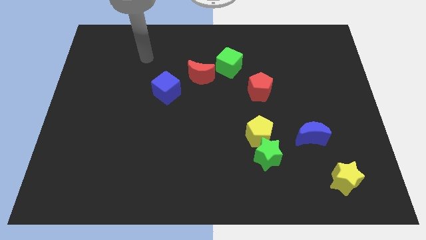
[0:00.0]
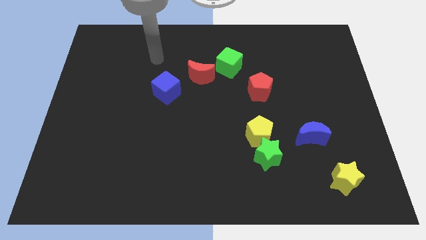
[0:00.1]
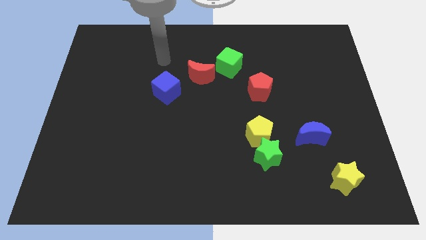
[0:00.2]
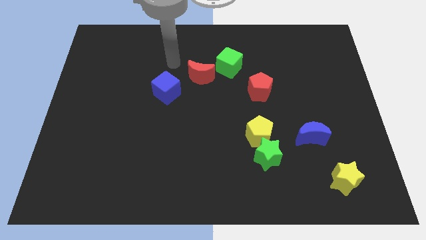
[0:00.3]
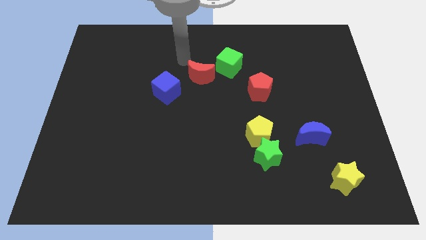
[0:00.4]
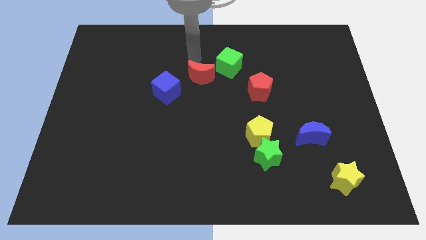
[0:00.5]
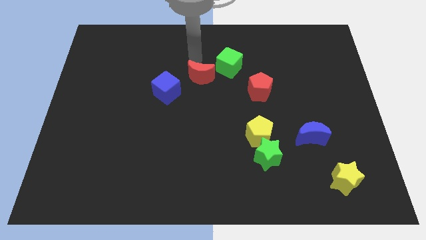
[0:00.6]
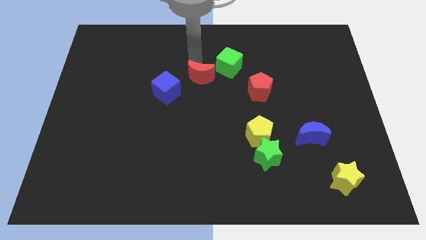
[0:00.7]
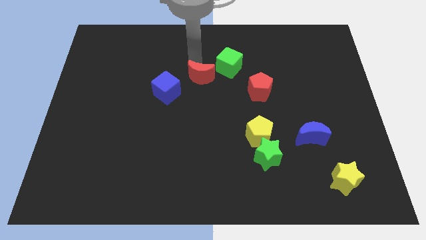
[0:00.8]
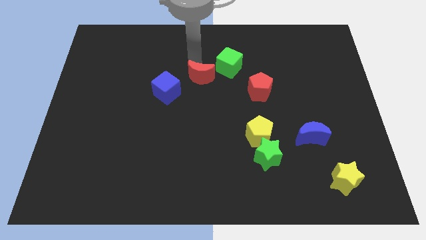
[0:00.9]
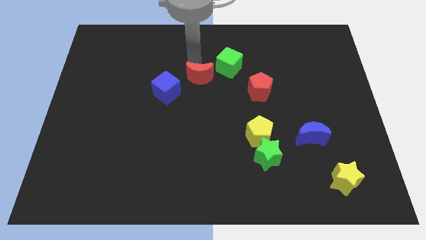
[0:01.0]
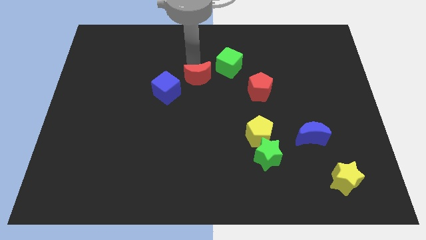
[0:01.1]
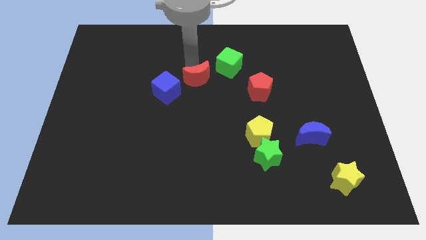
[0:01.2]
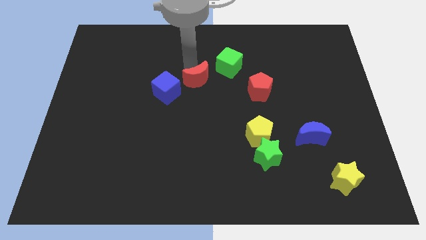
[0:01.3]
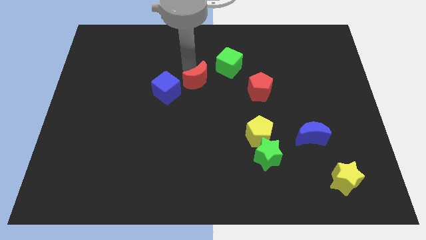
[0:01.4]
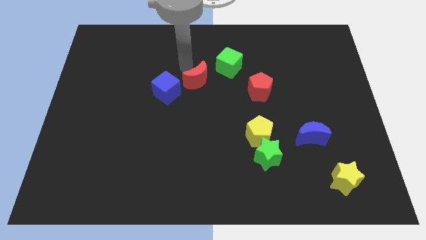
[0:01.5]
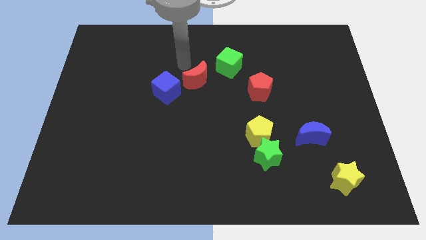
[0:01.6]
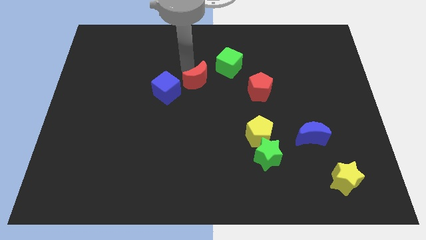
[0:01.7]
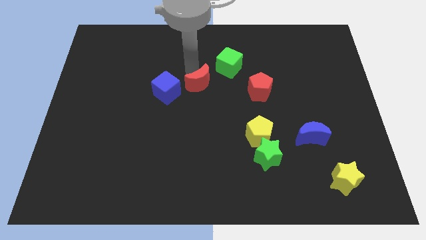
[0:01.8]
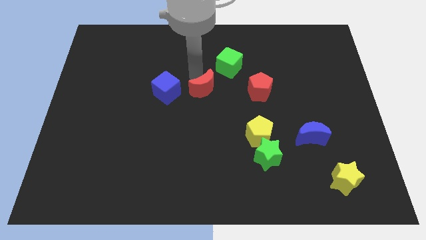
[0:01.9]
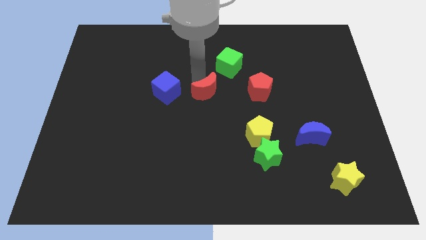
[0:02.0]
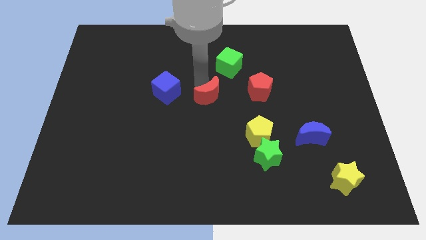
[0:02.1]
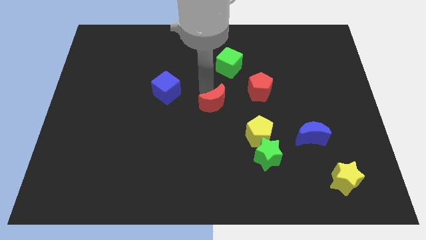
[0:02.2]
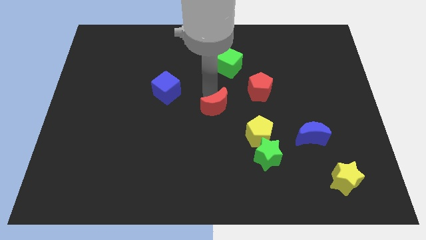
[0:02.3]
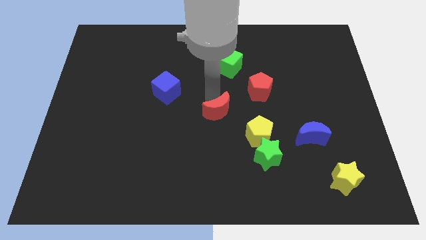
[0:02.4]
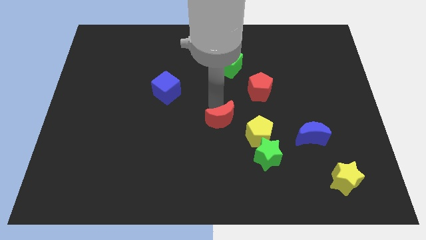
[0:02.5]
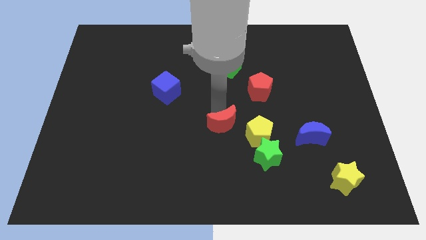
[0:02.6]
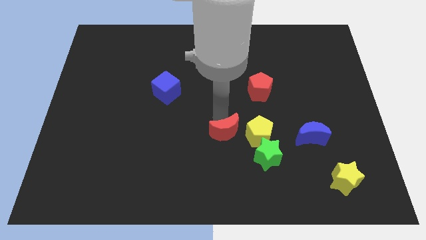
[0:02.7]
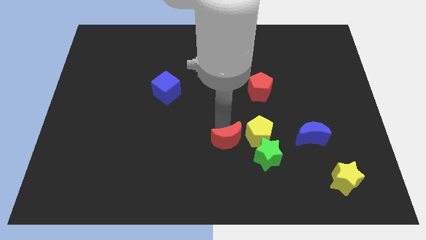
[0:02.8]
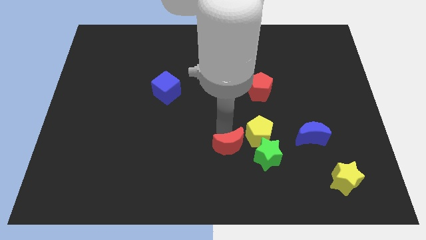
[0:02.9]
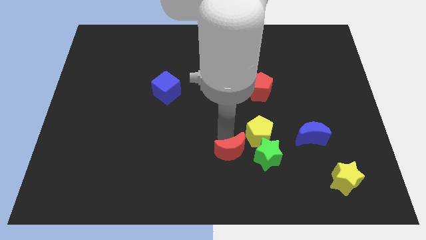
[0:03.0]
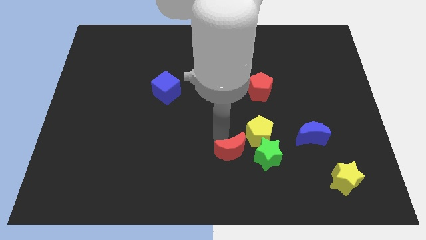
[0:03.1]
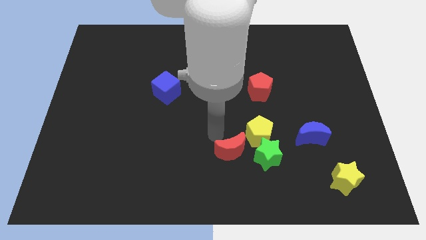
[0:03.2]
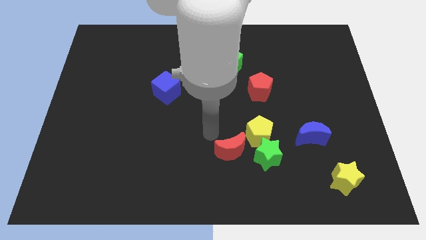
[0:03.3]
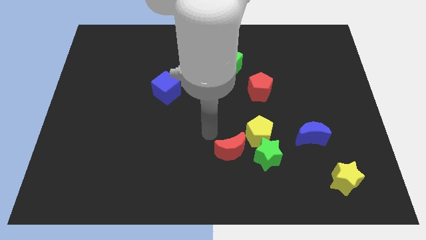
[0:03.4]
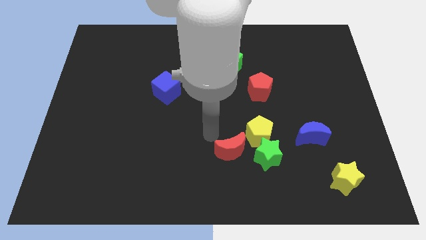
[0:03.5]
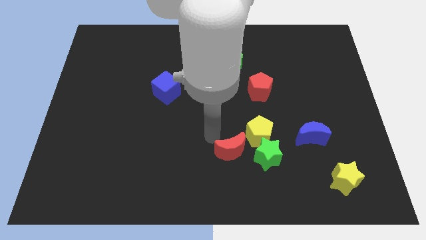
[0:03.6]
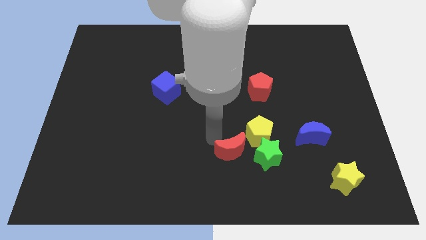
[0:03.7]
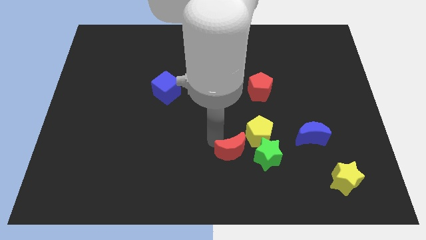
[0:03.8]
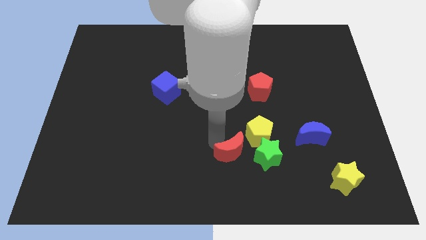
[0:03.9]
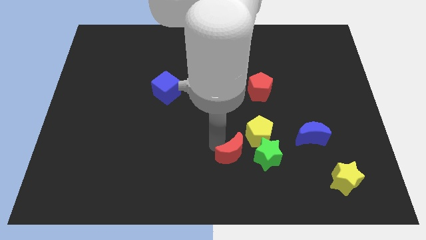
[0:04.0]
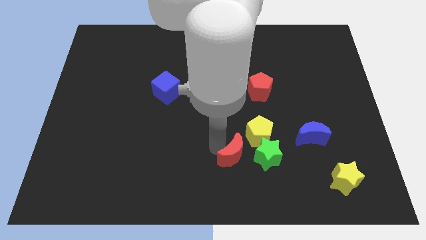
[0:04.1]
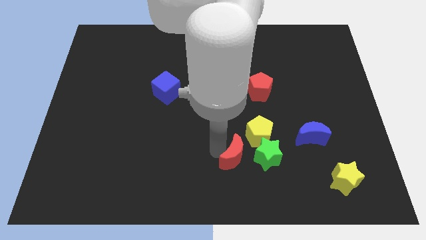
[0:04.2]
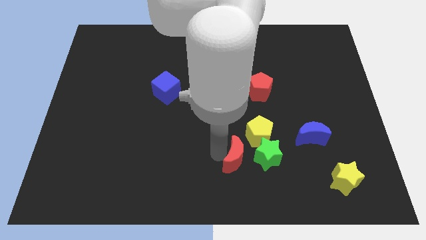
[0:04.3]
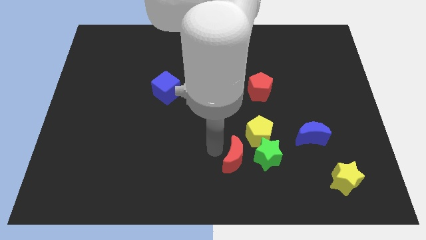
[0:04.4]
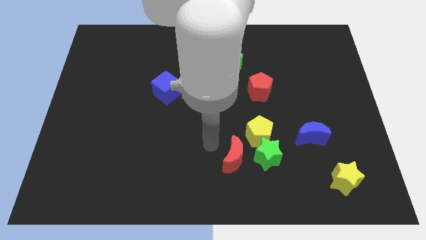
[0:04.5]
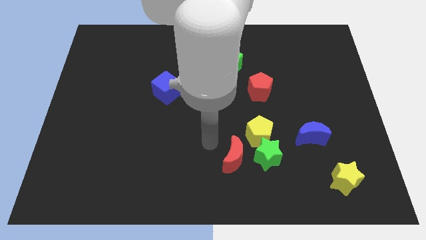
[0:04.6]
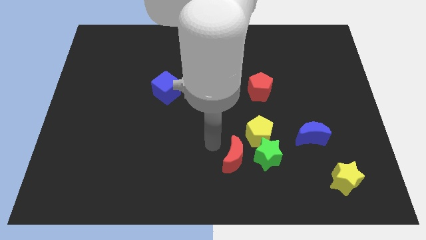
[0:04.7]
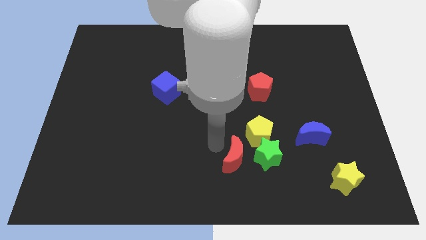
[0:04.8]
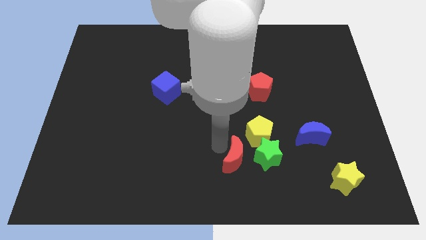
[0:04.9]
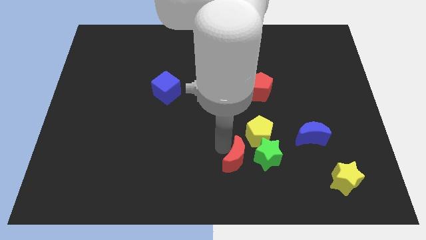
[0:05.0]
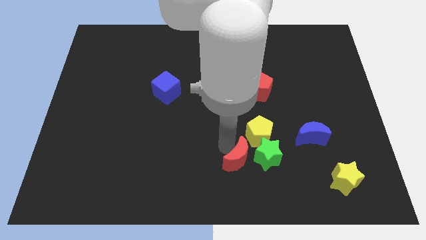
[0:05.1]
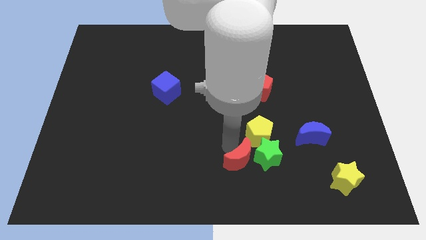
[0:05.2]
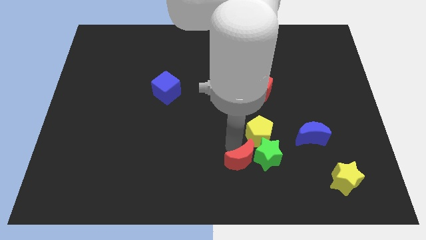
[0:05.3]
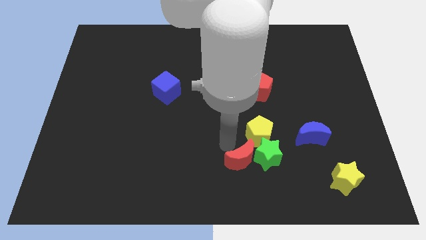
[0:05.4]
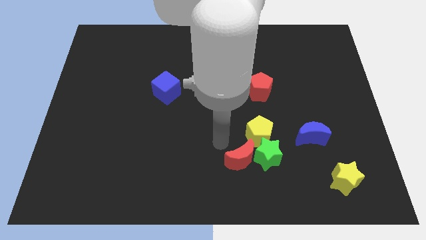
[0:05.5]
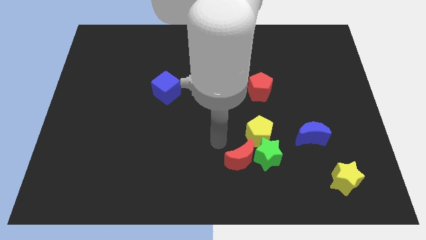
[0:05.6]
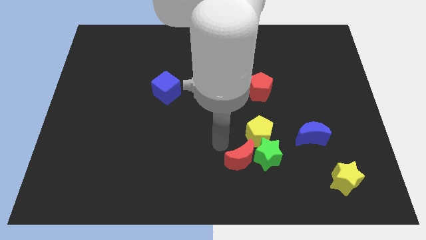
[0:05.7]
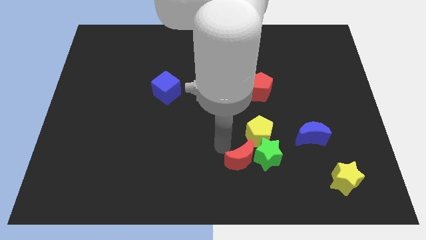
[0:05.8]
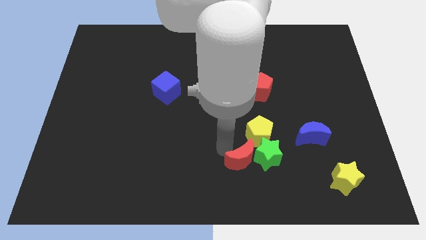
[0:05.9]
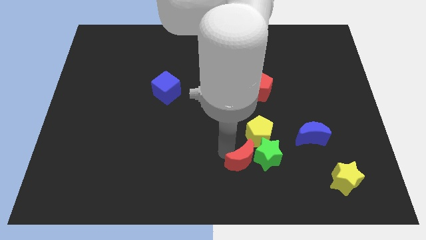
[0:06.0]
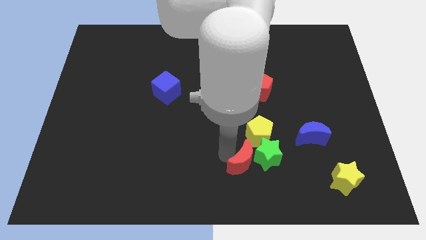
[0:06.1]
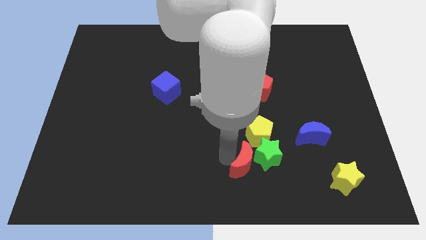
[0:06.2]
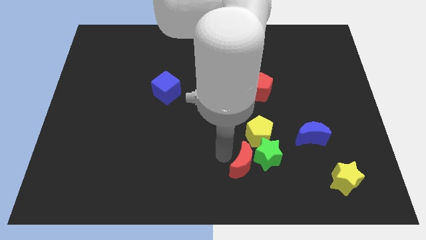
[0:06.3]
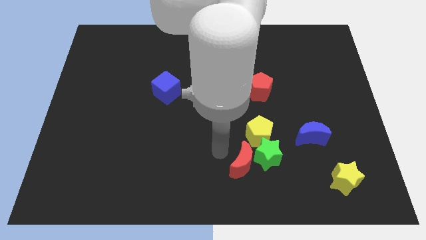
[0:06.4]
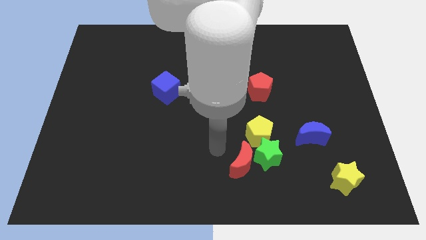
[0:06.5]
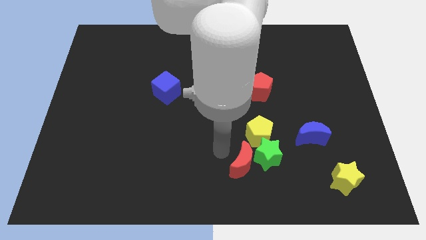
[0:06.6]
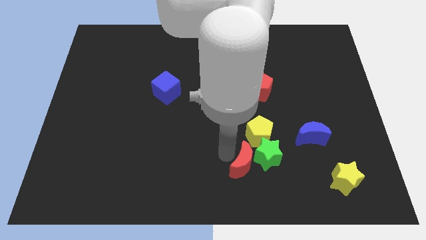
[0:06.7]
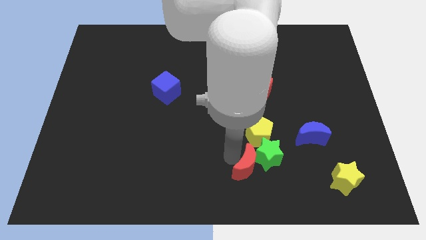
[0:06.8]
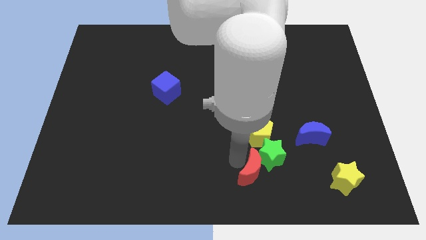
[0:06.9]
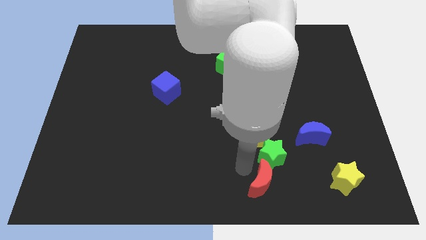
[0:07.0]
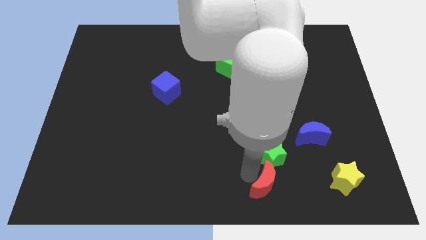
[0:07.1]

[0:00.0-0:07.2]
put the red moon left of the yellow star
